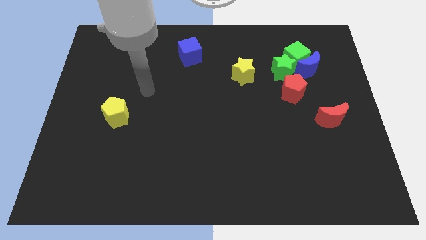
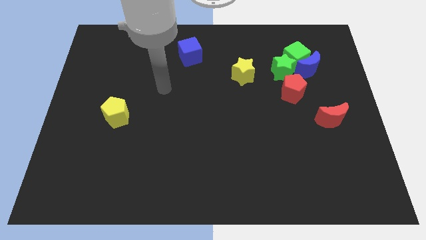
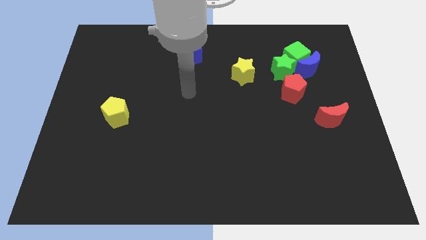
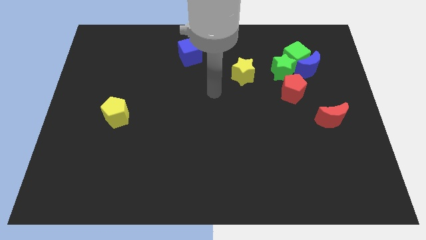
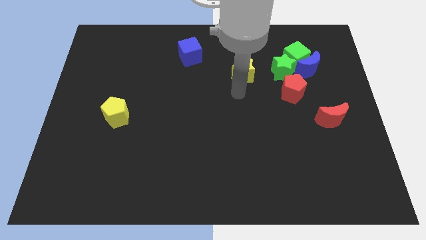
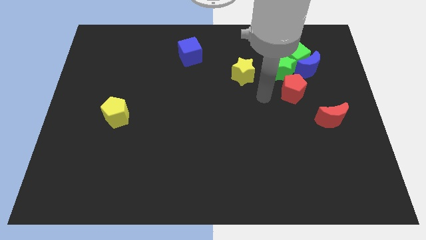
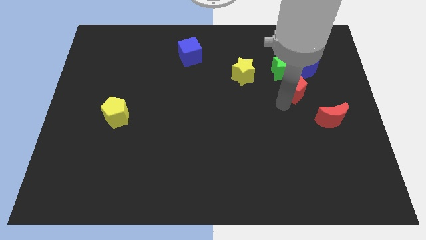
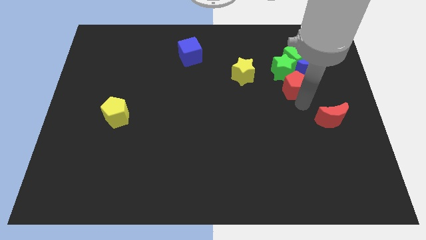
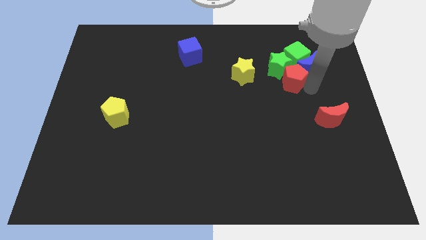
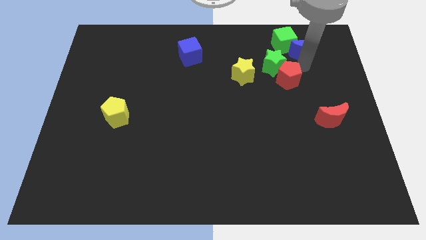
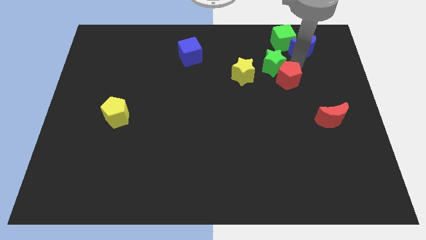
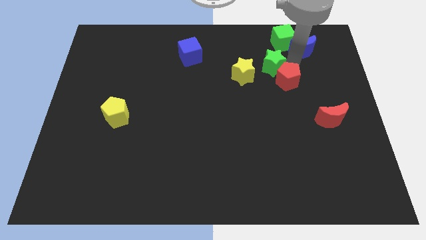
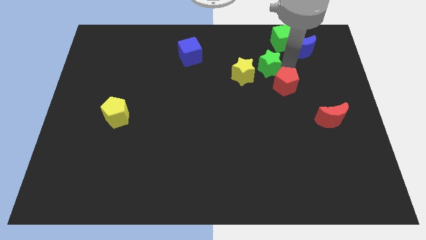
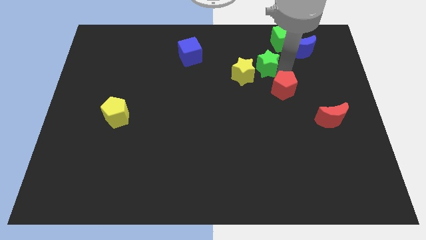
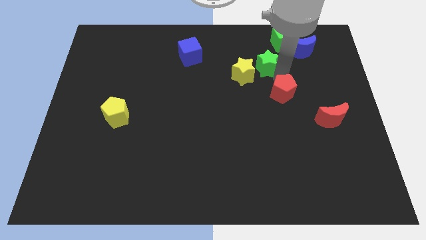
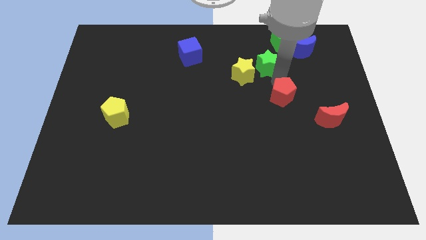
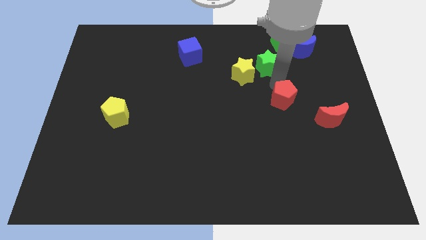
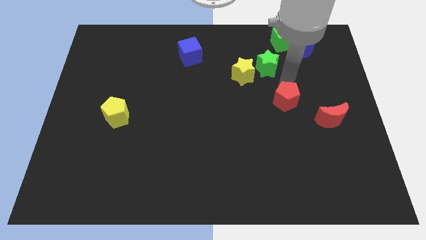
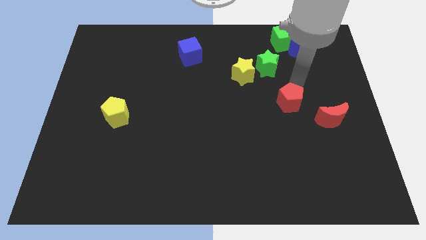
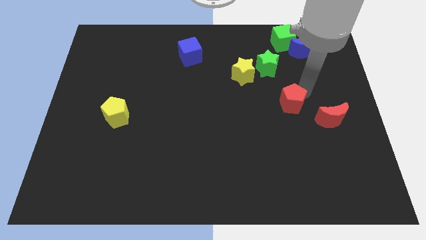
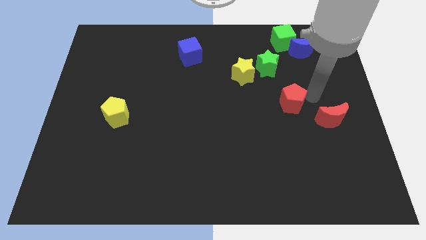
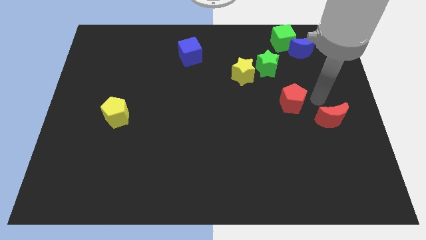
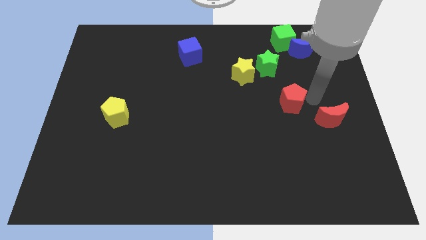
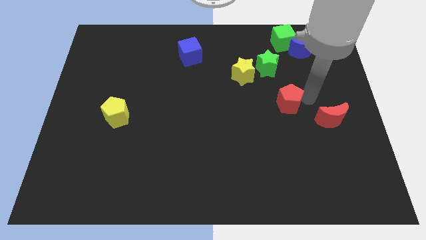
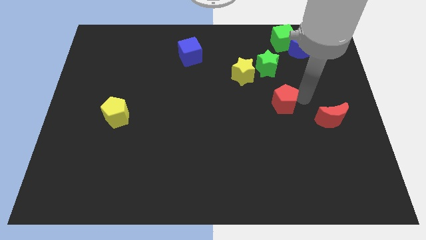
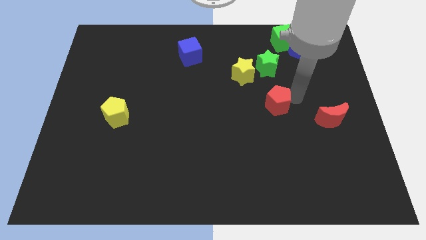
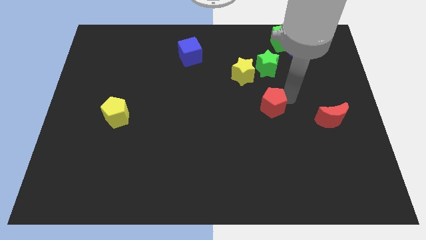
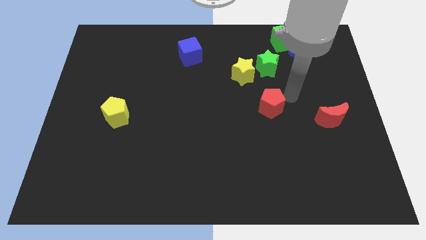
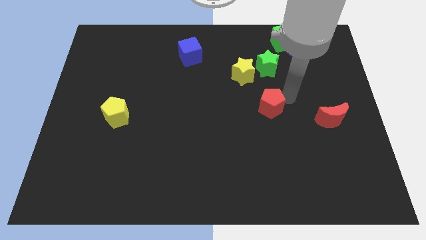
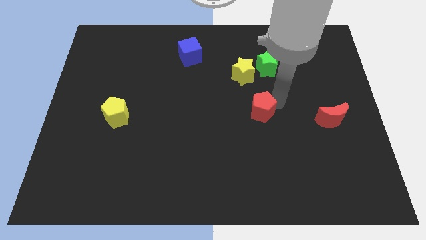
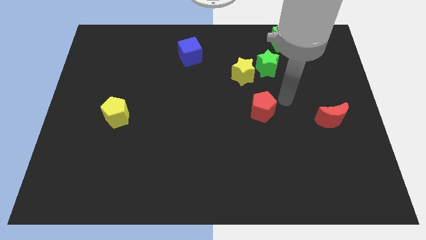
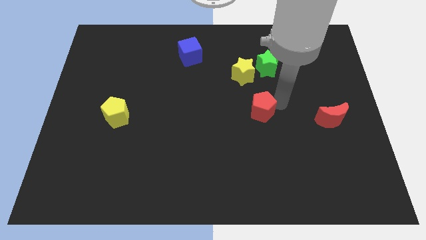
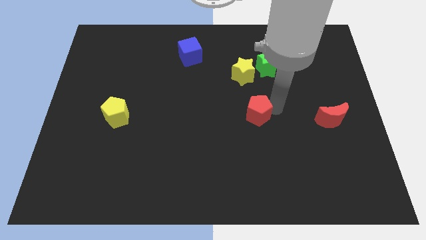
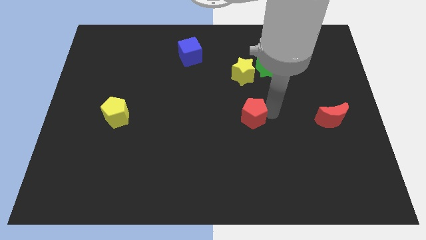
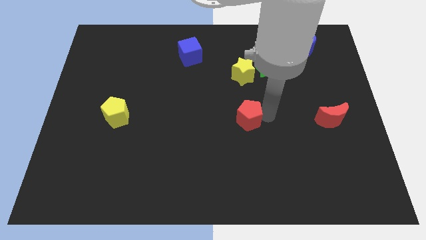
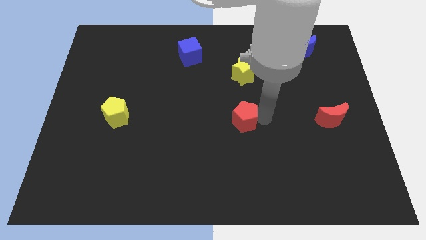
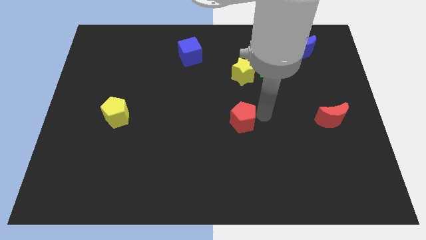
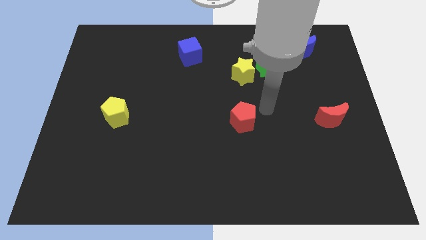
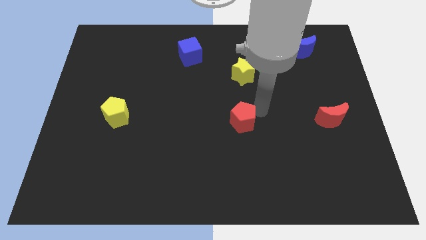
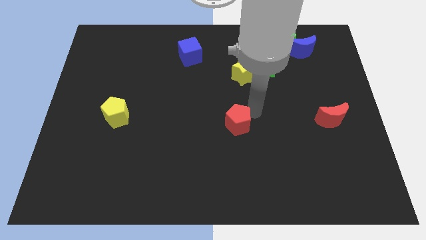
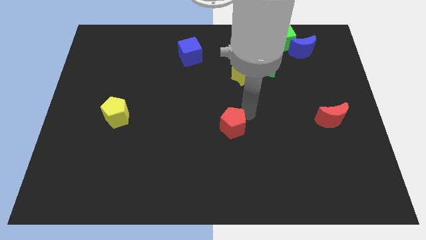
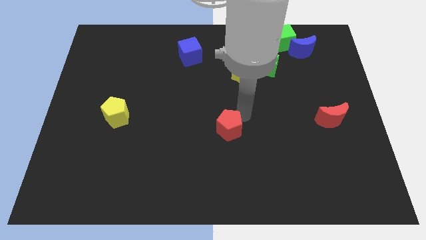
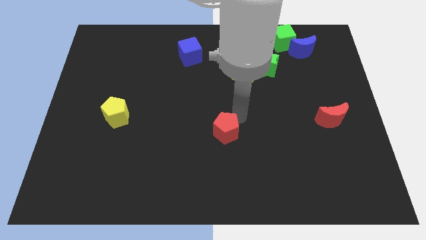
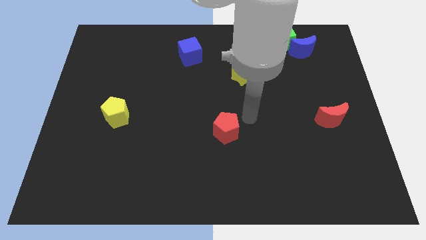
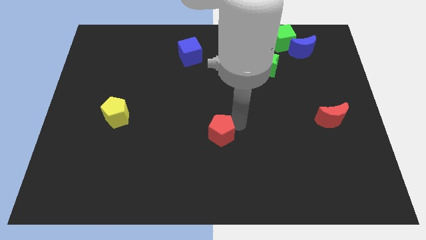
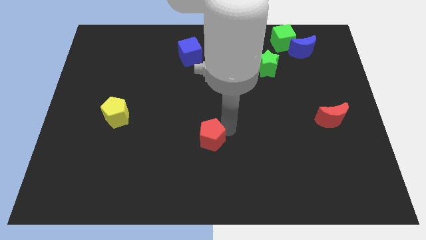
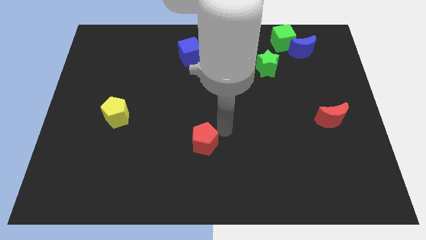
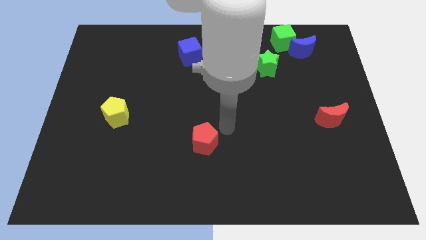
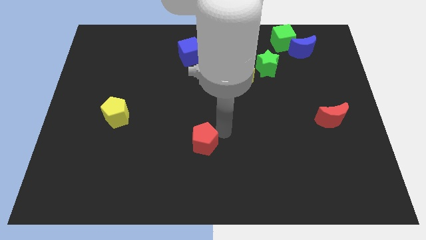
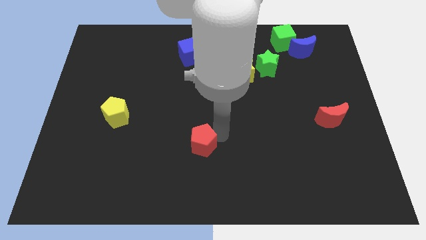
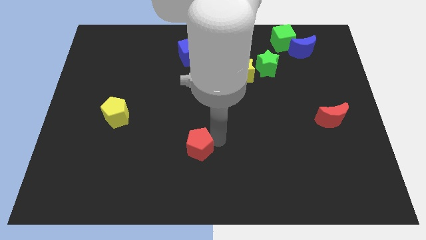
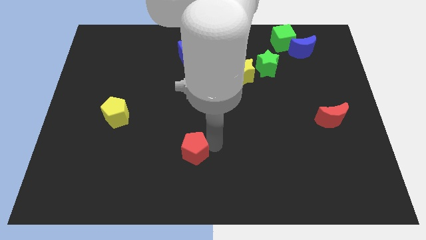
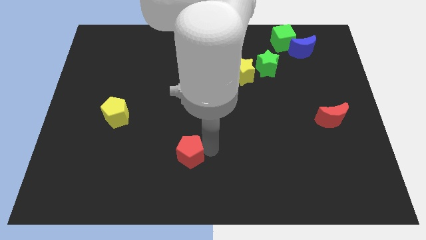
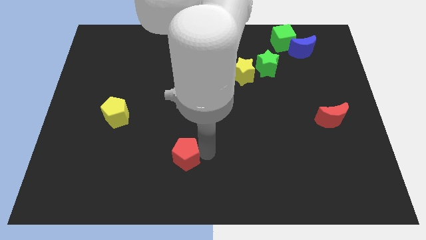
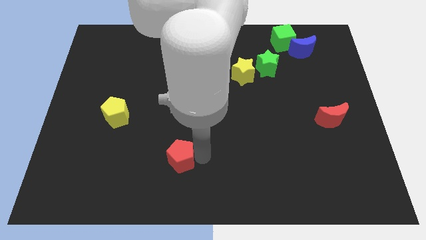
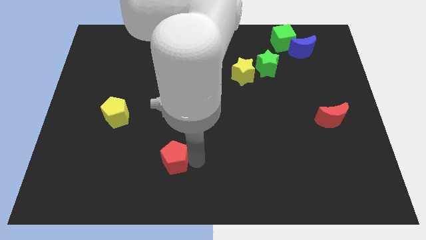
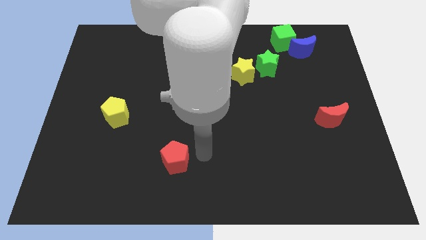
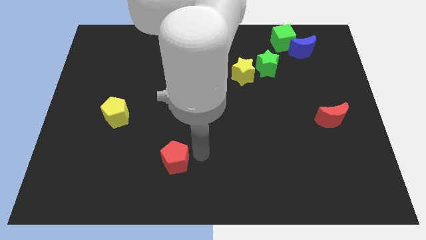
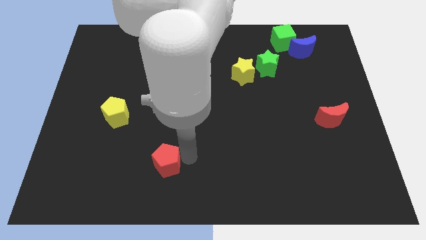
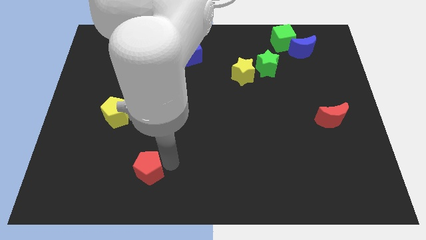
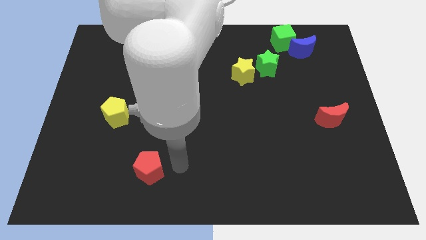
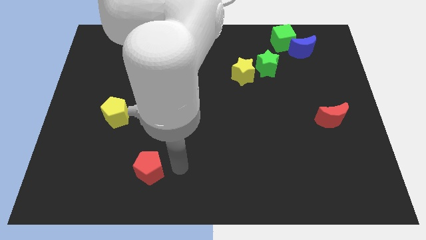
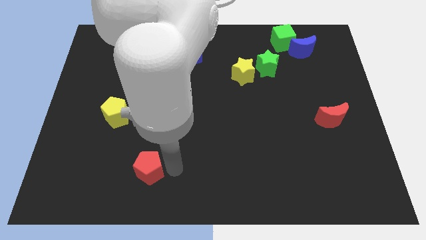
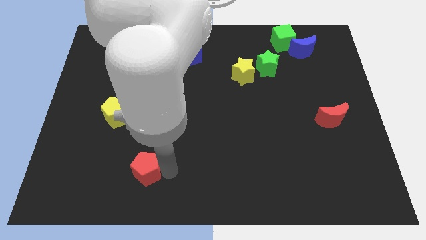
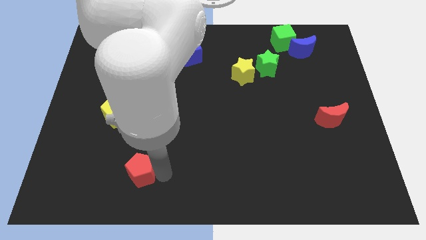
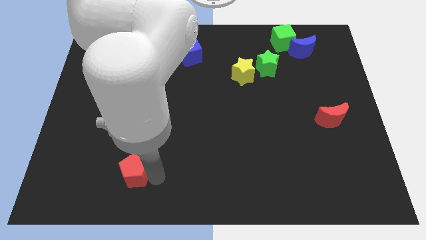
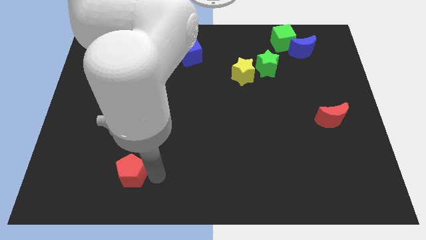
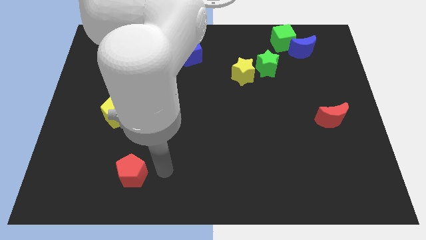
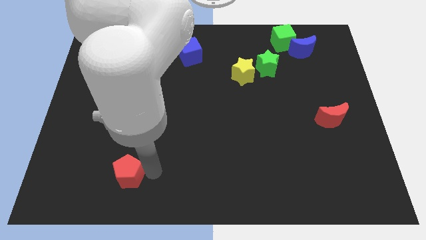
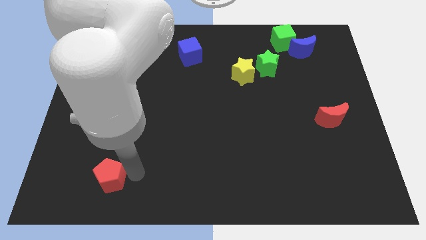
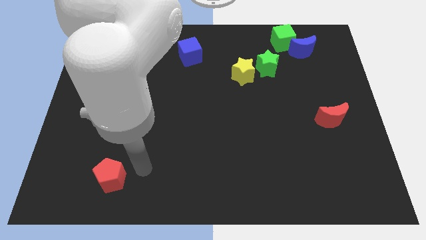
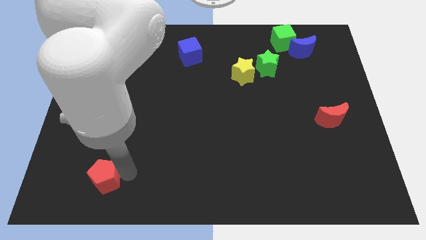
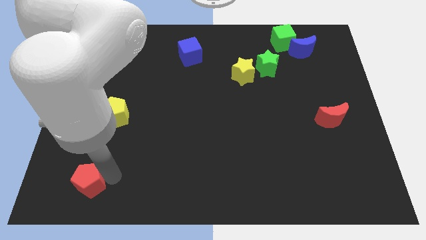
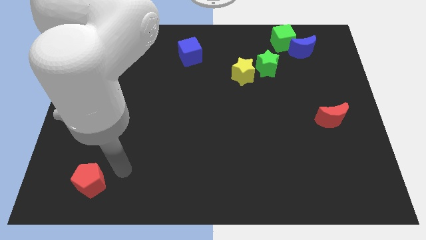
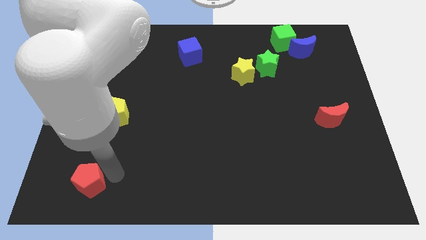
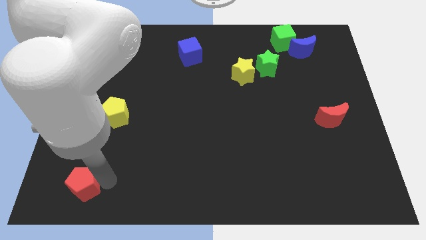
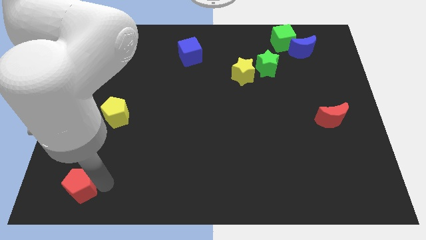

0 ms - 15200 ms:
put the red pentagon to the bottom left
